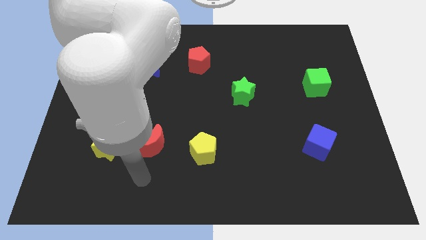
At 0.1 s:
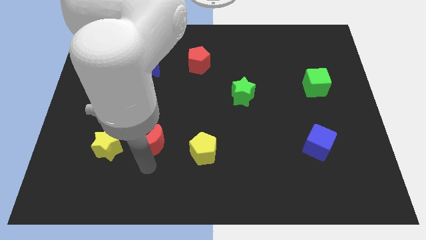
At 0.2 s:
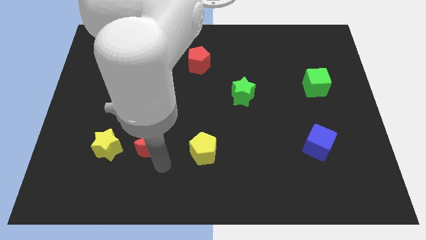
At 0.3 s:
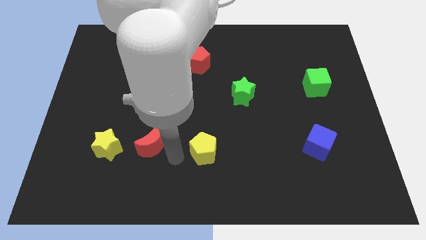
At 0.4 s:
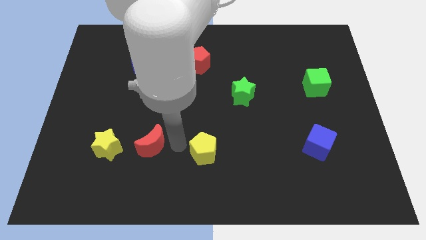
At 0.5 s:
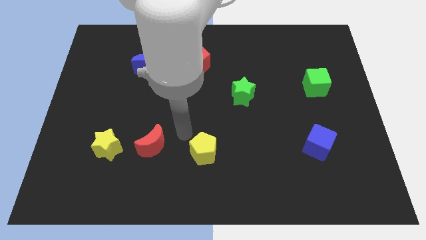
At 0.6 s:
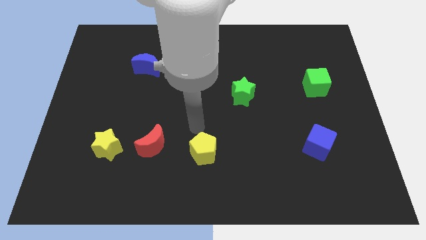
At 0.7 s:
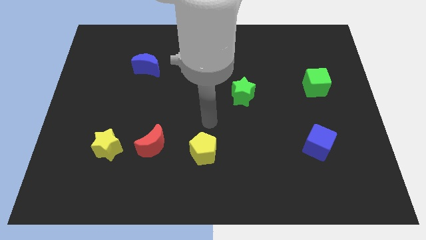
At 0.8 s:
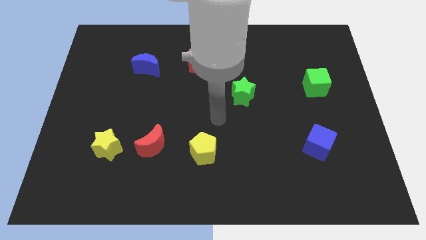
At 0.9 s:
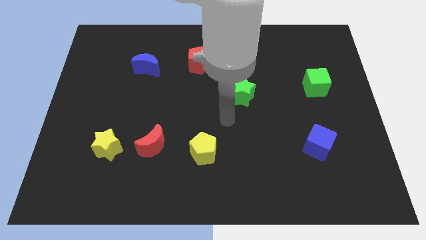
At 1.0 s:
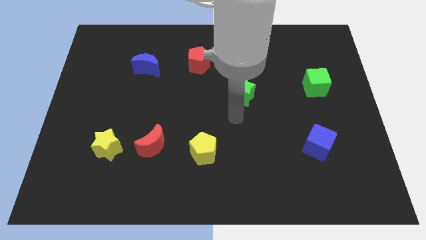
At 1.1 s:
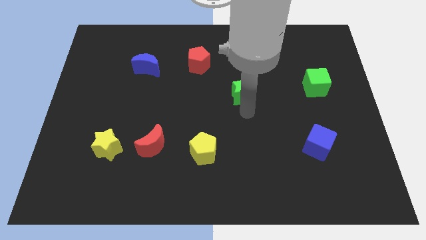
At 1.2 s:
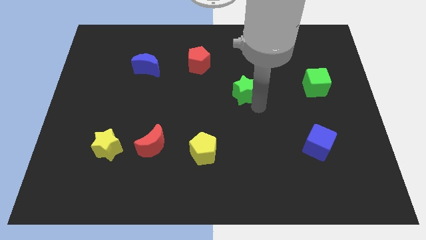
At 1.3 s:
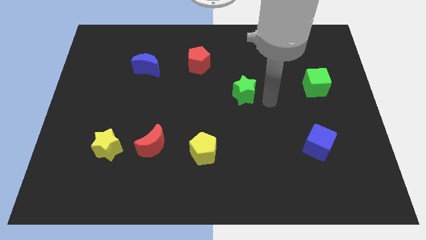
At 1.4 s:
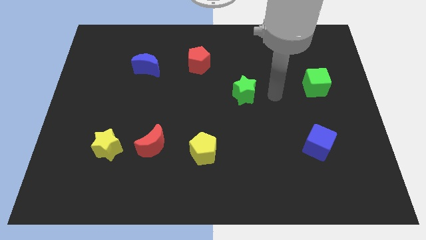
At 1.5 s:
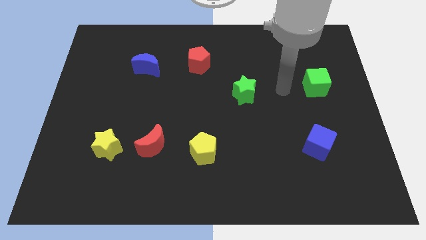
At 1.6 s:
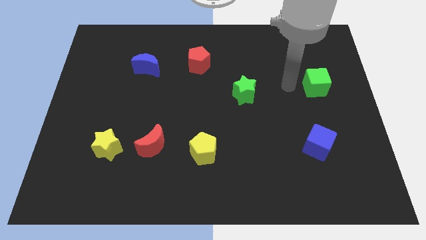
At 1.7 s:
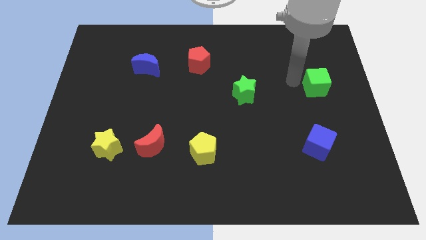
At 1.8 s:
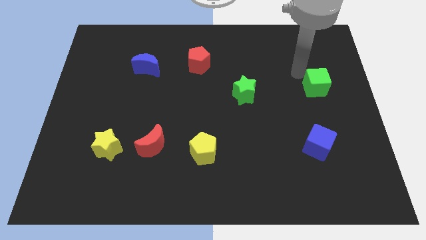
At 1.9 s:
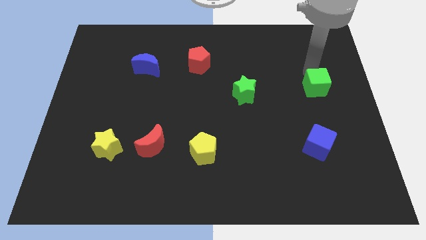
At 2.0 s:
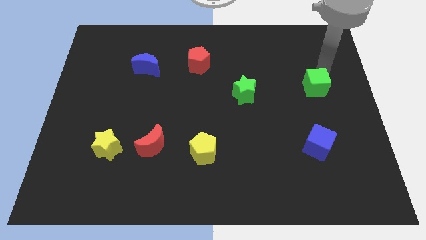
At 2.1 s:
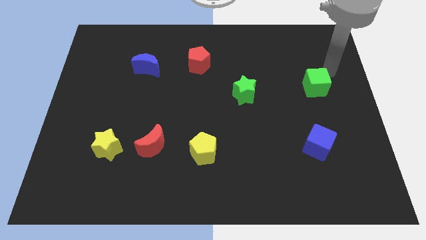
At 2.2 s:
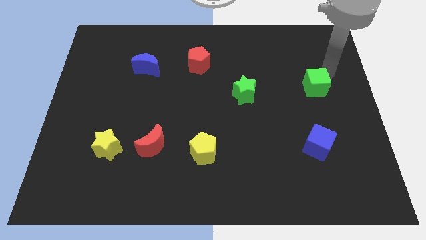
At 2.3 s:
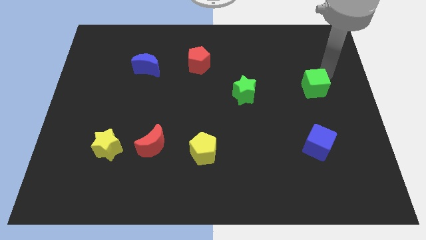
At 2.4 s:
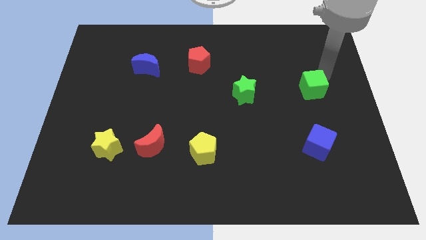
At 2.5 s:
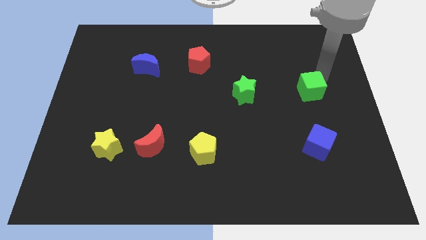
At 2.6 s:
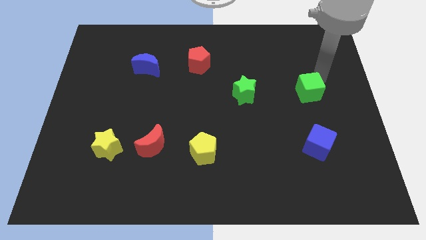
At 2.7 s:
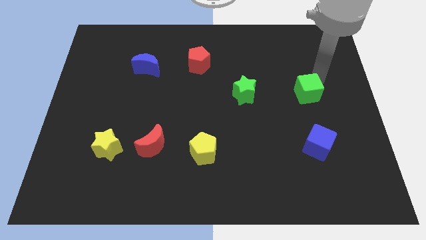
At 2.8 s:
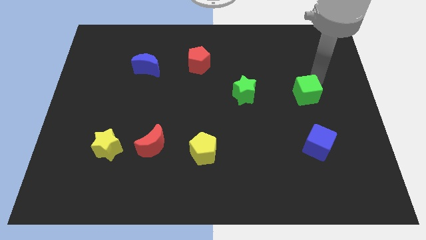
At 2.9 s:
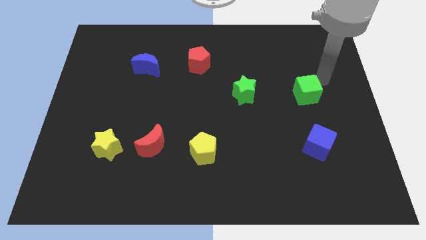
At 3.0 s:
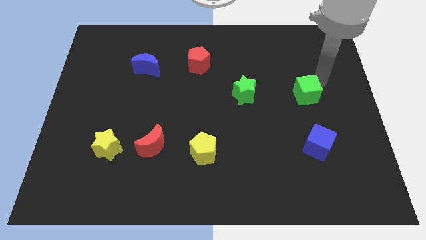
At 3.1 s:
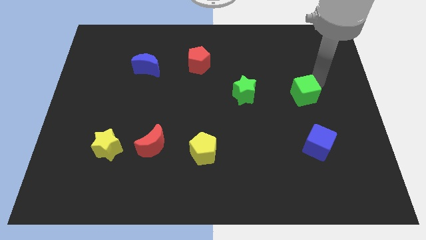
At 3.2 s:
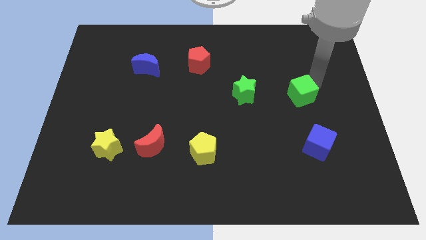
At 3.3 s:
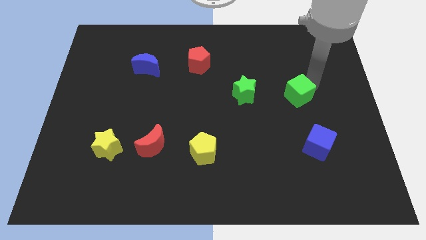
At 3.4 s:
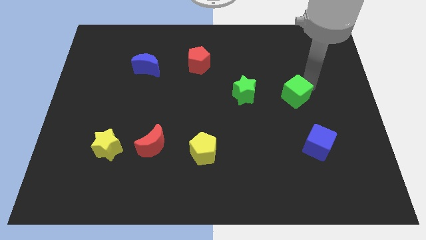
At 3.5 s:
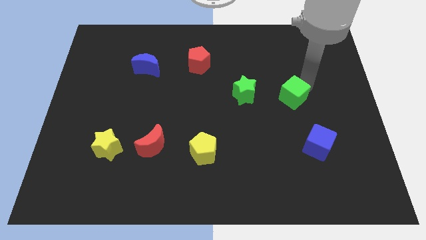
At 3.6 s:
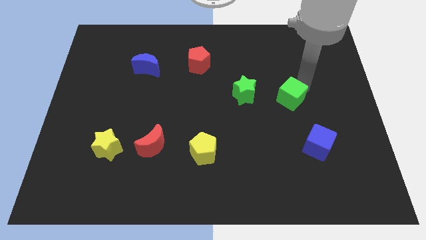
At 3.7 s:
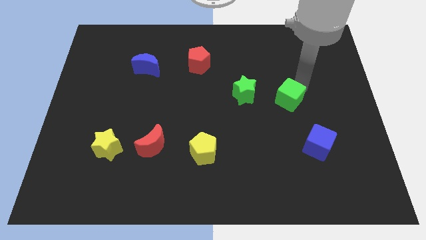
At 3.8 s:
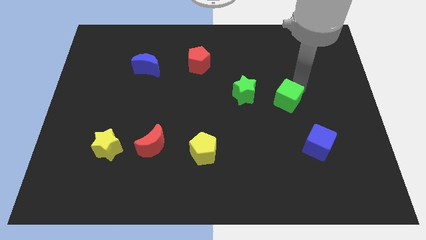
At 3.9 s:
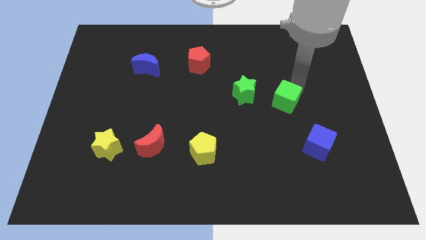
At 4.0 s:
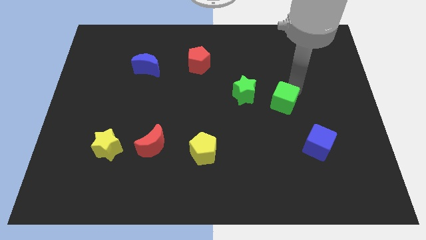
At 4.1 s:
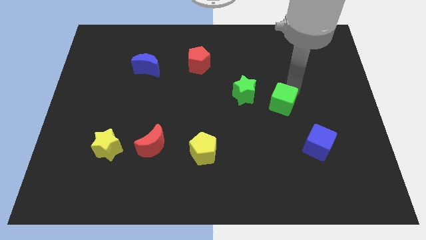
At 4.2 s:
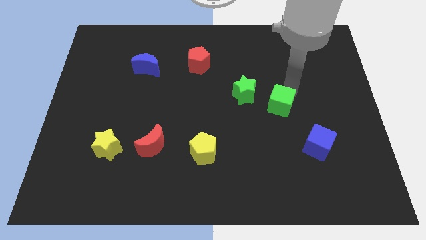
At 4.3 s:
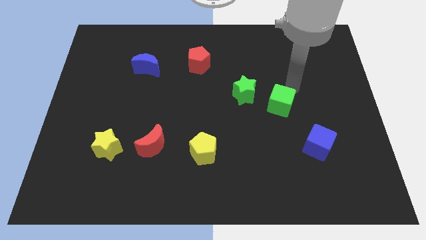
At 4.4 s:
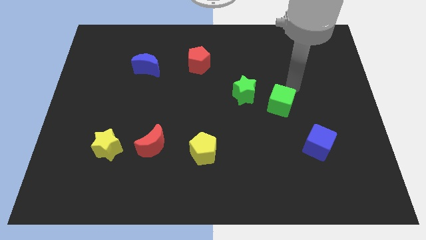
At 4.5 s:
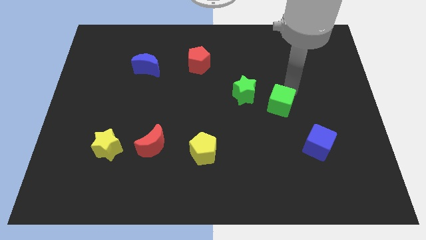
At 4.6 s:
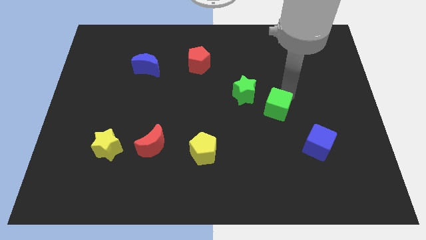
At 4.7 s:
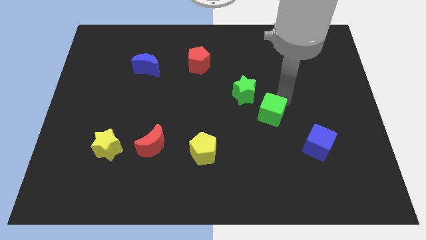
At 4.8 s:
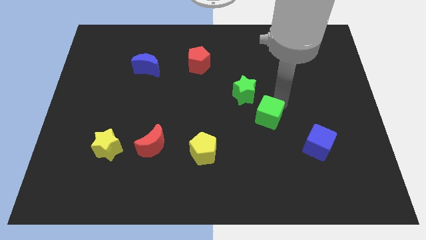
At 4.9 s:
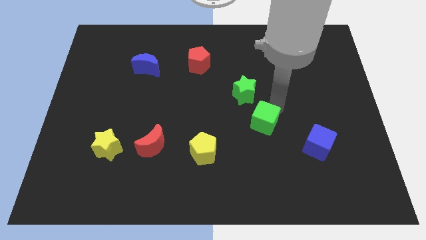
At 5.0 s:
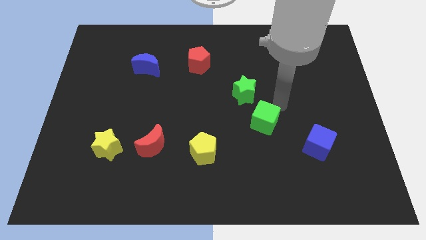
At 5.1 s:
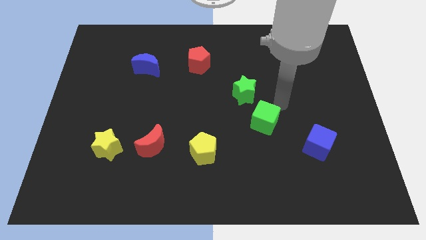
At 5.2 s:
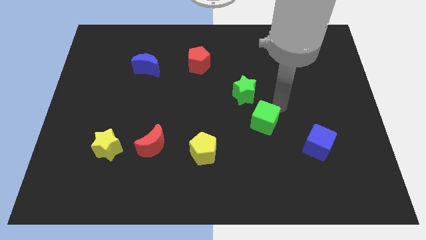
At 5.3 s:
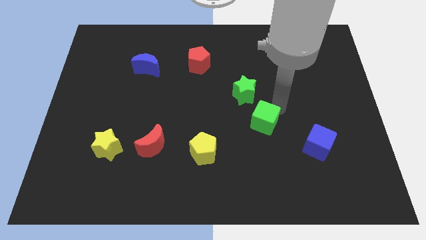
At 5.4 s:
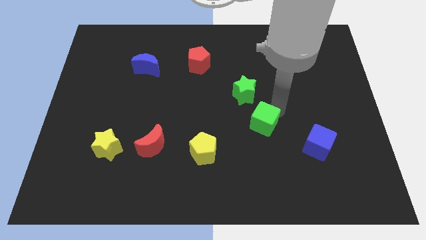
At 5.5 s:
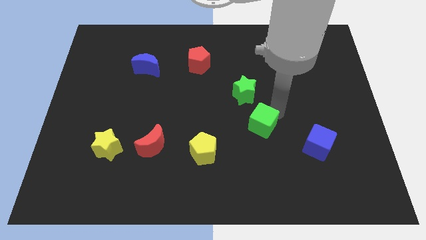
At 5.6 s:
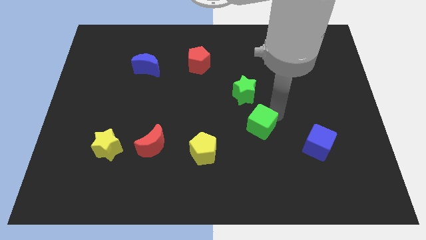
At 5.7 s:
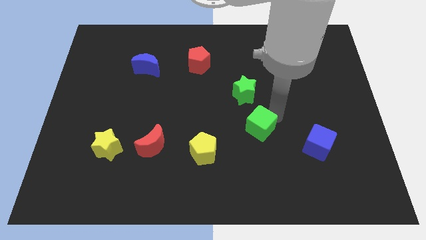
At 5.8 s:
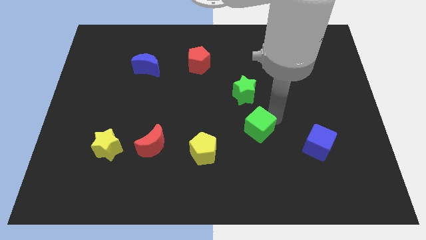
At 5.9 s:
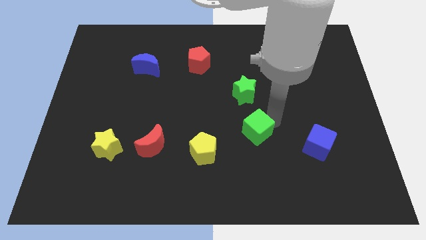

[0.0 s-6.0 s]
push the green cube down and left

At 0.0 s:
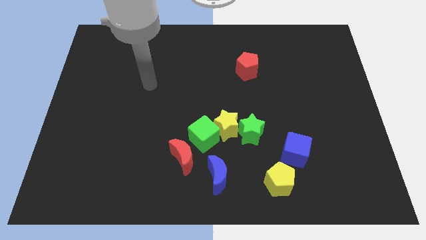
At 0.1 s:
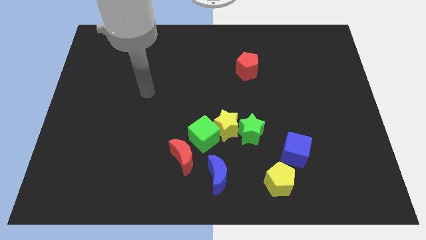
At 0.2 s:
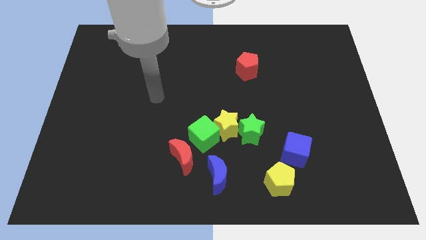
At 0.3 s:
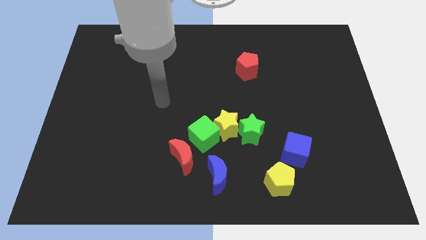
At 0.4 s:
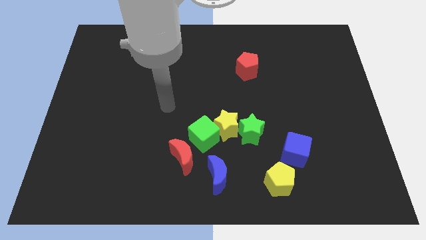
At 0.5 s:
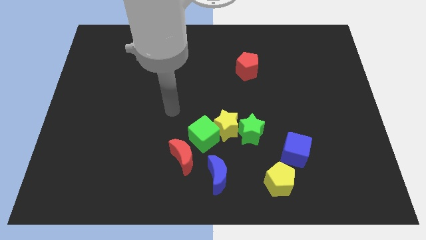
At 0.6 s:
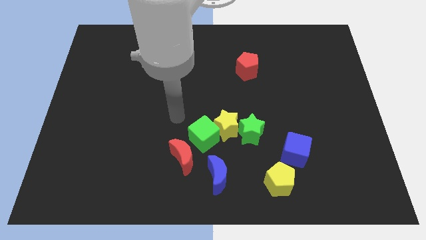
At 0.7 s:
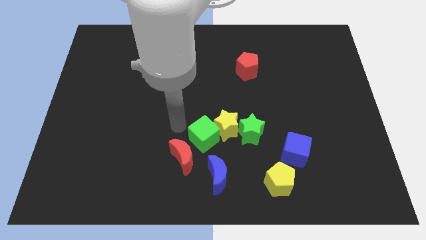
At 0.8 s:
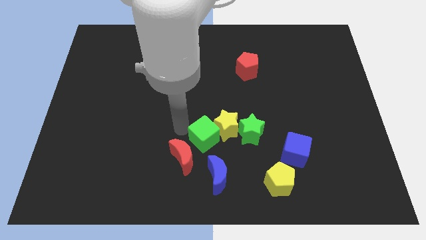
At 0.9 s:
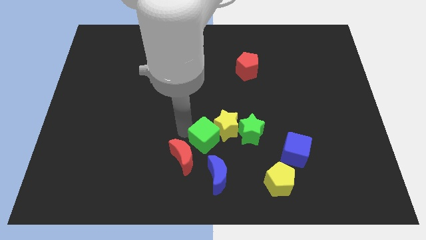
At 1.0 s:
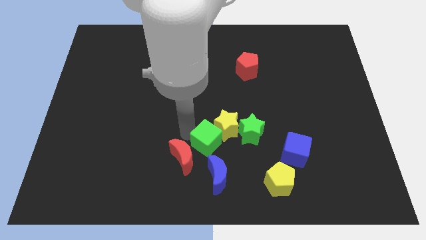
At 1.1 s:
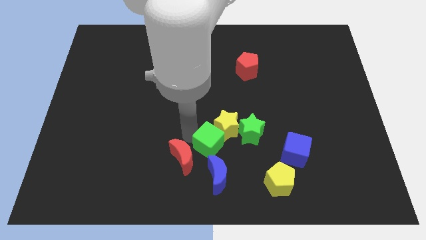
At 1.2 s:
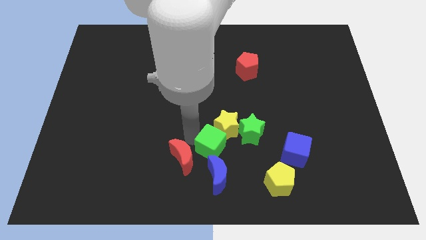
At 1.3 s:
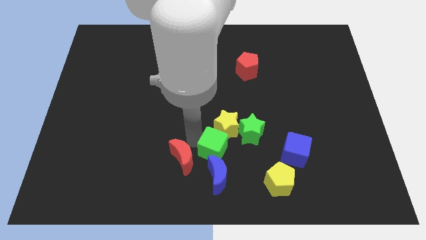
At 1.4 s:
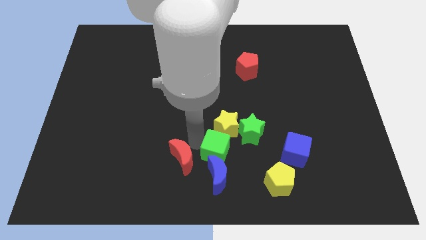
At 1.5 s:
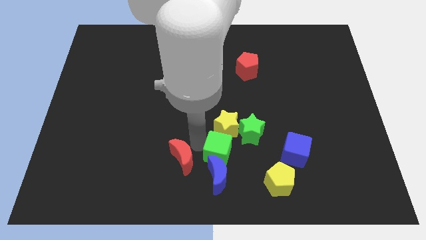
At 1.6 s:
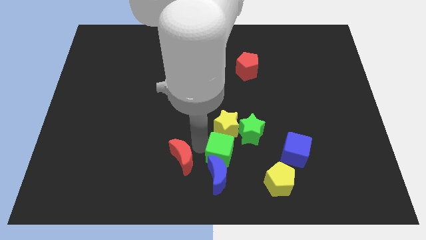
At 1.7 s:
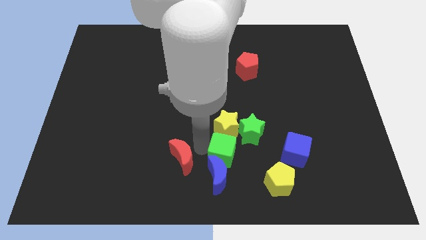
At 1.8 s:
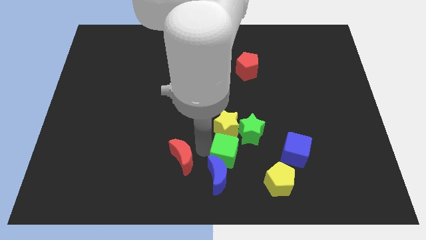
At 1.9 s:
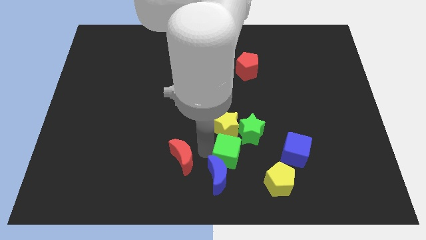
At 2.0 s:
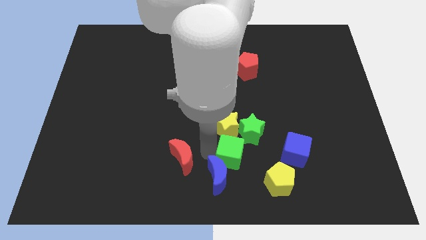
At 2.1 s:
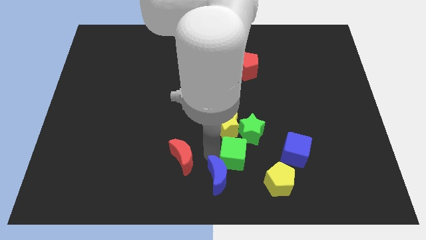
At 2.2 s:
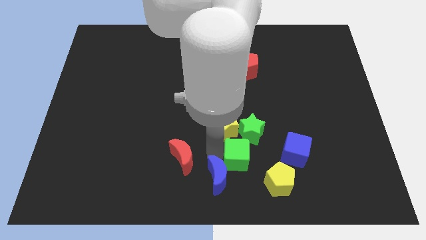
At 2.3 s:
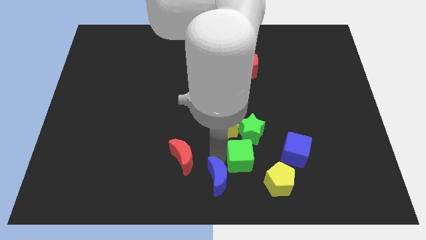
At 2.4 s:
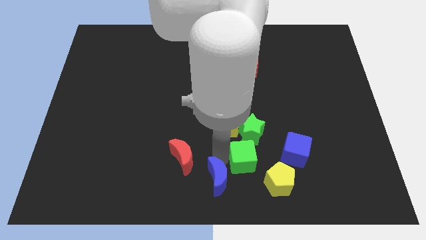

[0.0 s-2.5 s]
slide the green cube to the right somewhat
